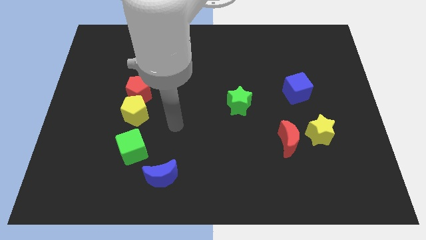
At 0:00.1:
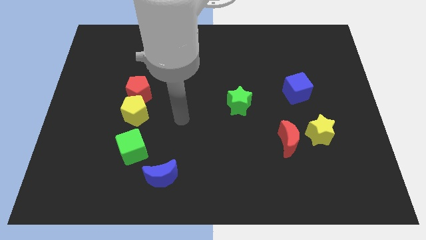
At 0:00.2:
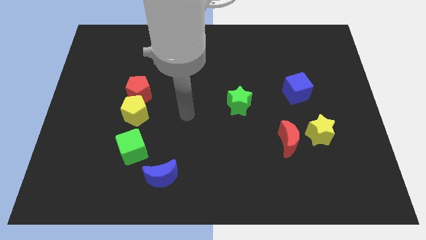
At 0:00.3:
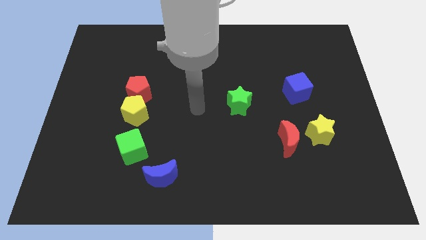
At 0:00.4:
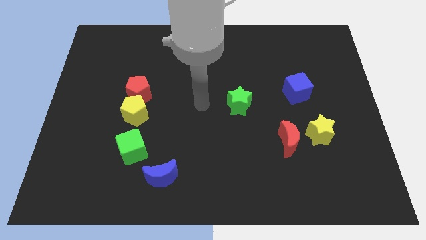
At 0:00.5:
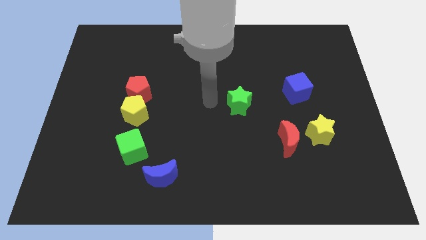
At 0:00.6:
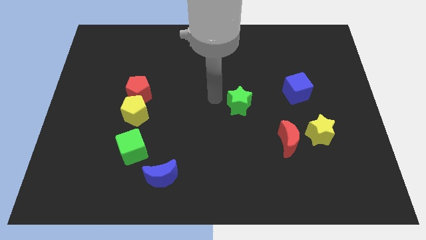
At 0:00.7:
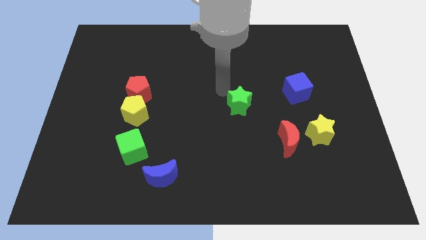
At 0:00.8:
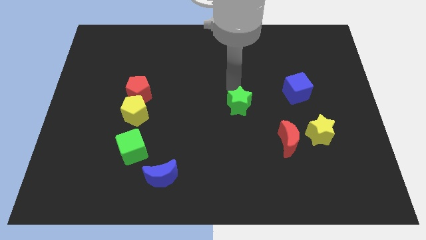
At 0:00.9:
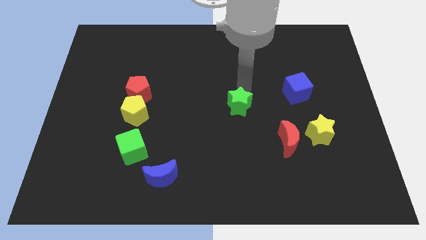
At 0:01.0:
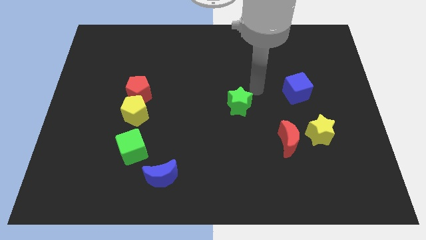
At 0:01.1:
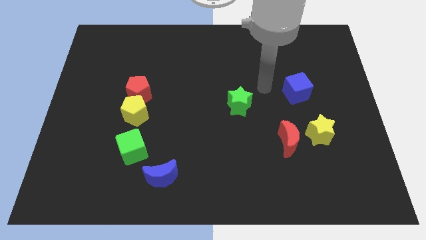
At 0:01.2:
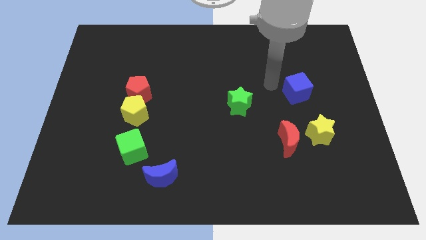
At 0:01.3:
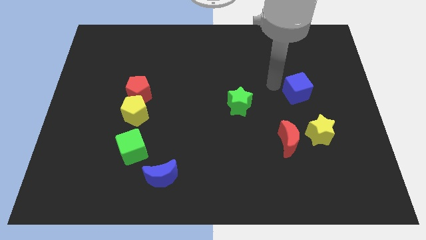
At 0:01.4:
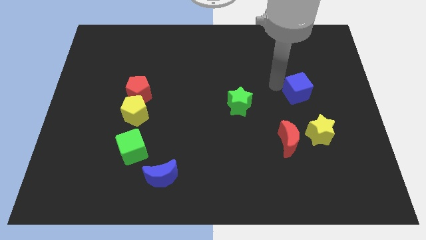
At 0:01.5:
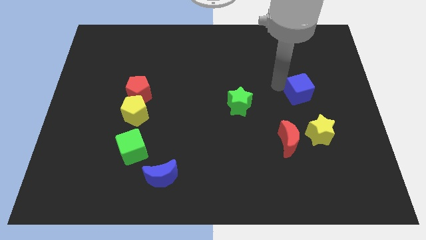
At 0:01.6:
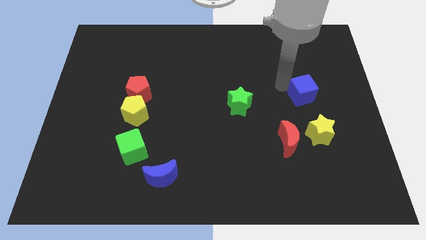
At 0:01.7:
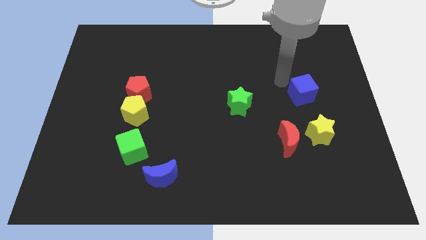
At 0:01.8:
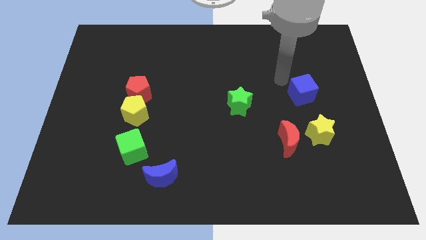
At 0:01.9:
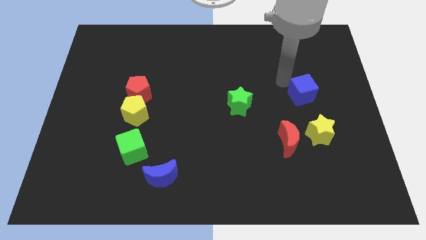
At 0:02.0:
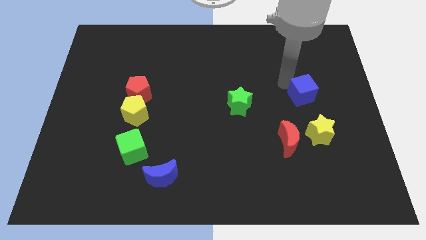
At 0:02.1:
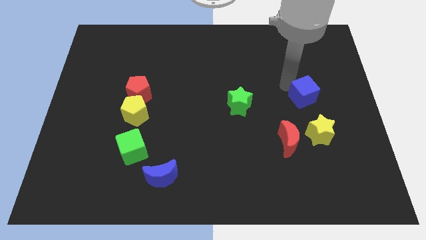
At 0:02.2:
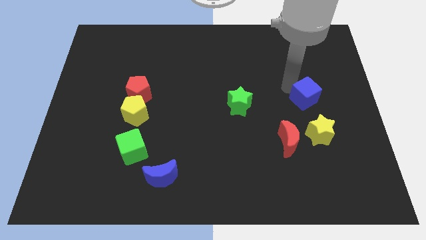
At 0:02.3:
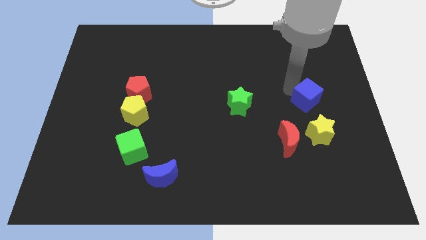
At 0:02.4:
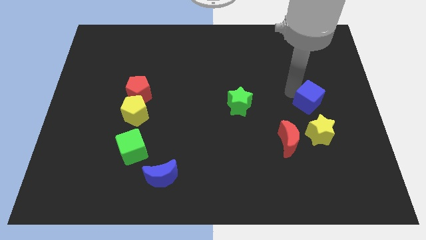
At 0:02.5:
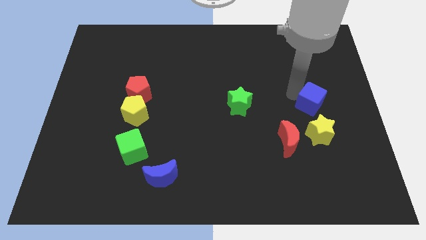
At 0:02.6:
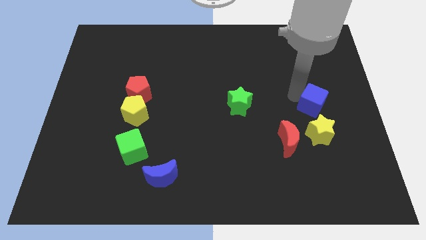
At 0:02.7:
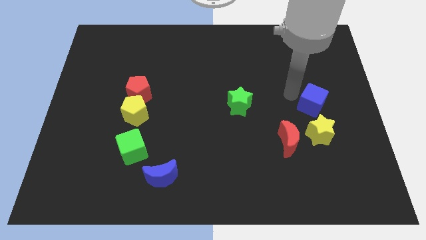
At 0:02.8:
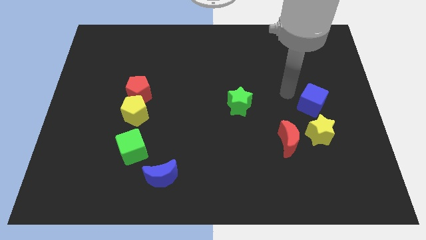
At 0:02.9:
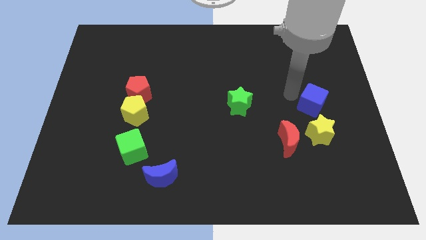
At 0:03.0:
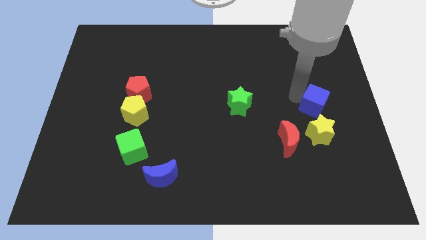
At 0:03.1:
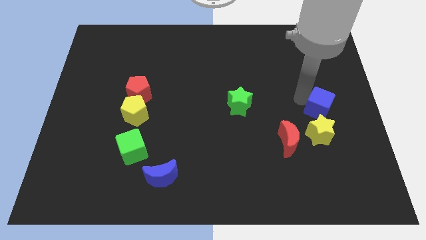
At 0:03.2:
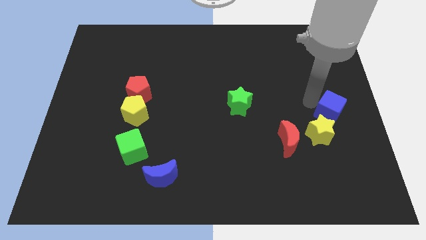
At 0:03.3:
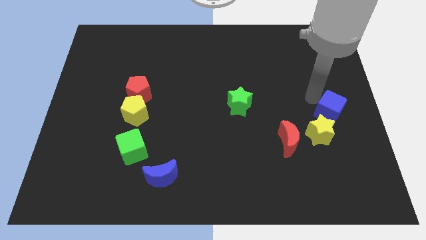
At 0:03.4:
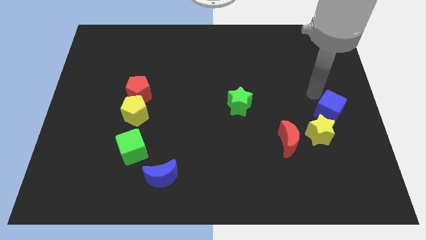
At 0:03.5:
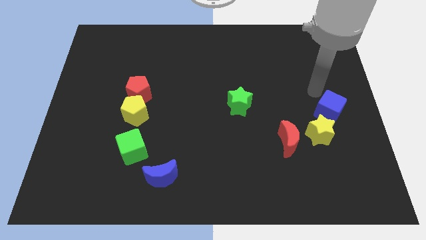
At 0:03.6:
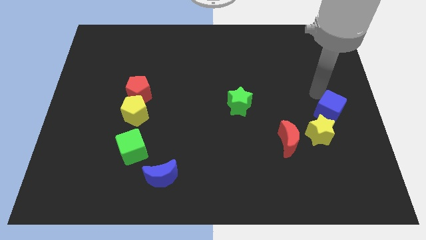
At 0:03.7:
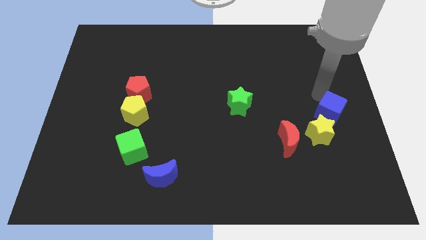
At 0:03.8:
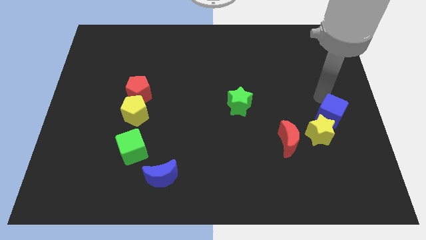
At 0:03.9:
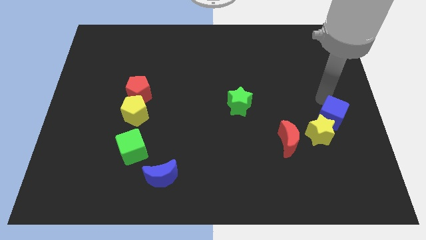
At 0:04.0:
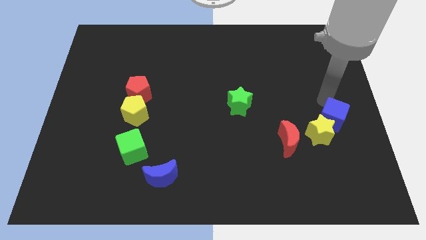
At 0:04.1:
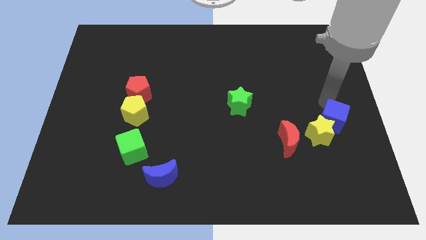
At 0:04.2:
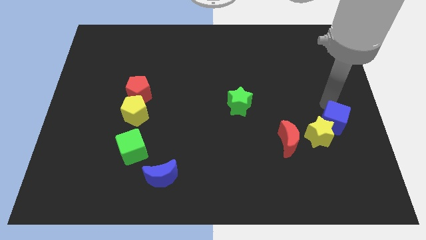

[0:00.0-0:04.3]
slide the blue cube downwards somewhat

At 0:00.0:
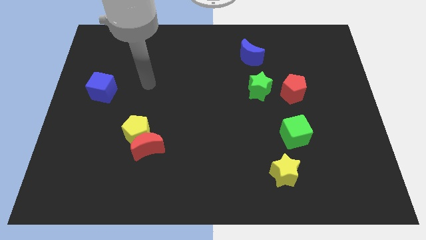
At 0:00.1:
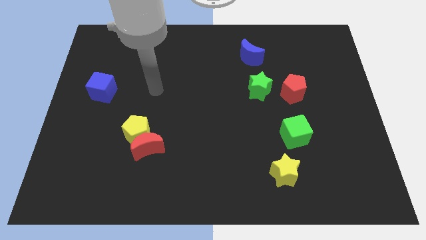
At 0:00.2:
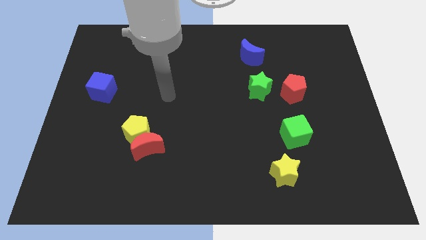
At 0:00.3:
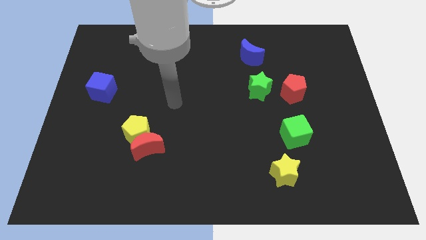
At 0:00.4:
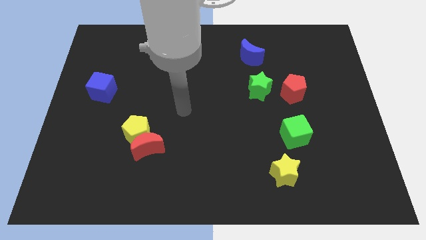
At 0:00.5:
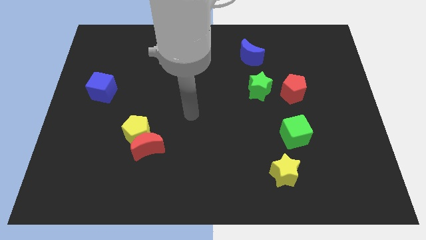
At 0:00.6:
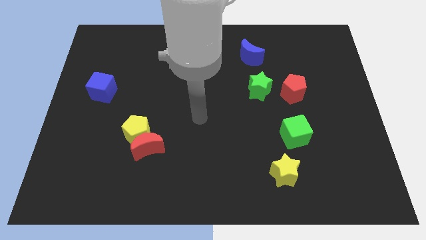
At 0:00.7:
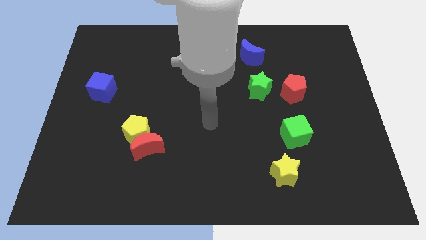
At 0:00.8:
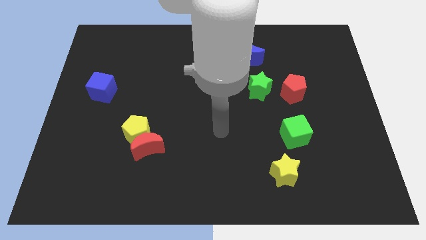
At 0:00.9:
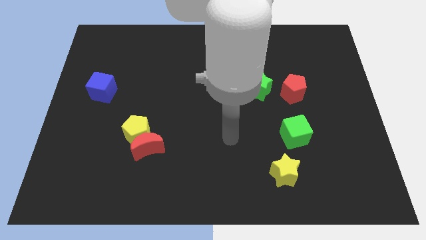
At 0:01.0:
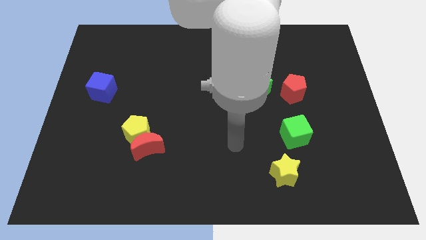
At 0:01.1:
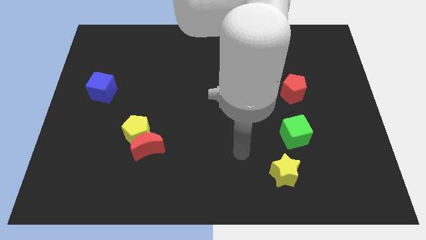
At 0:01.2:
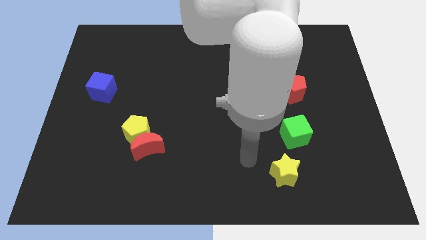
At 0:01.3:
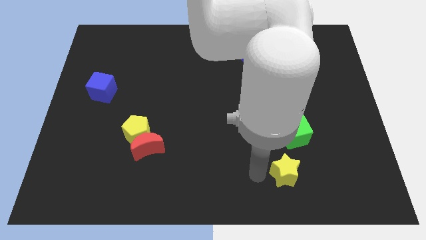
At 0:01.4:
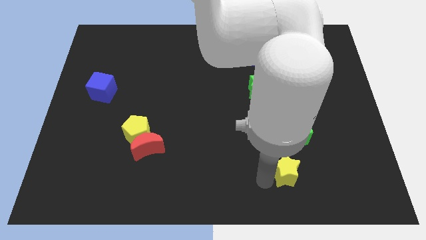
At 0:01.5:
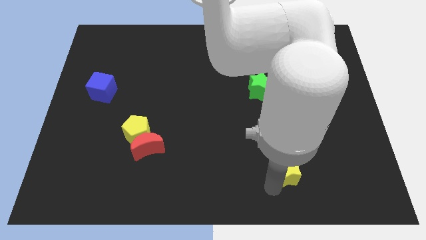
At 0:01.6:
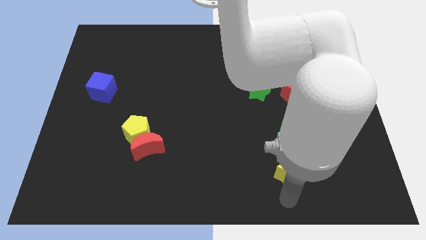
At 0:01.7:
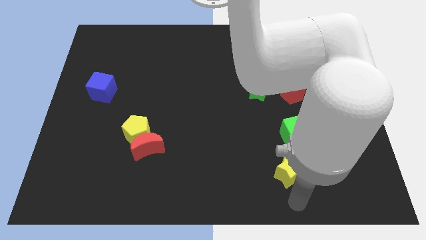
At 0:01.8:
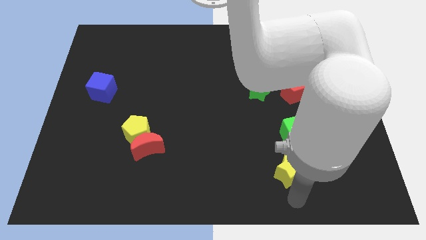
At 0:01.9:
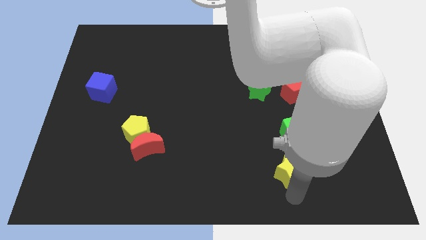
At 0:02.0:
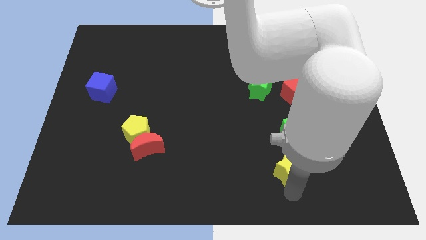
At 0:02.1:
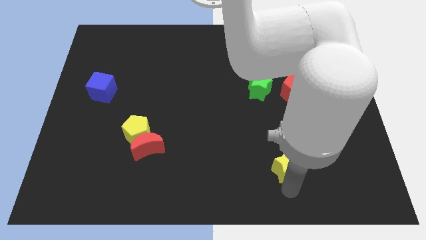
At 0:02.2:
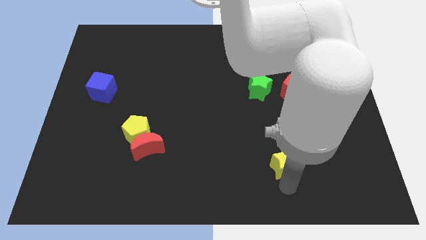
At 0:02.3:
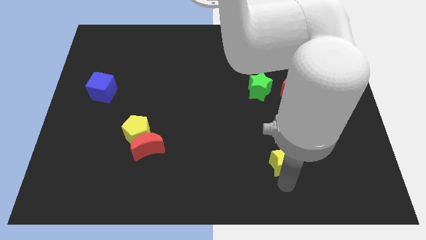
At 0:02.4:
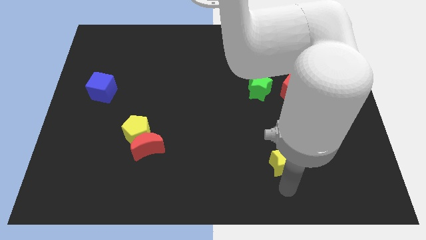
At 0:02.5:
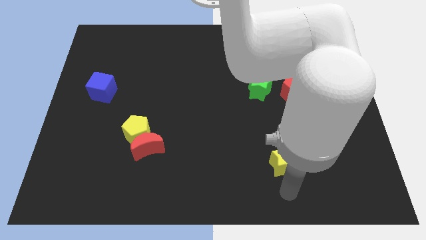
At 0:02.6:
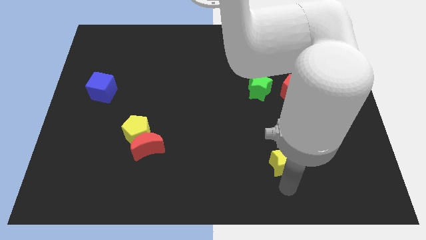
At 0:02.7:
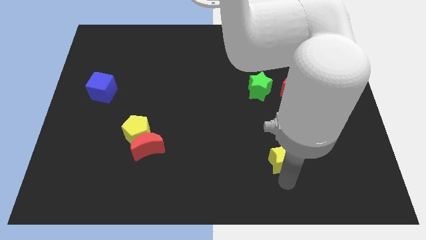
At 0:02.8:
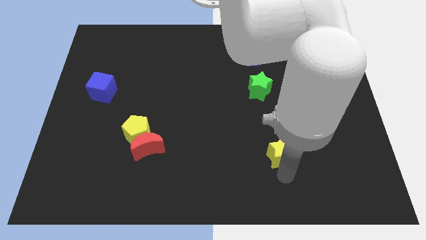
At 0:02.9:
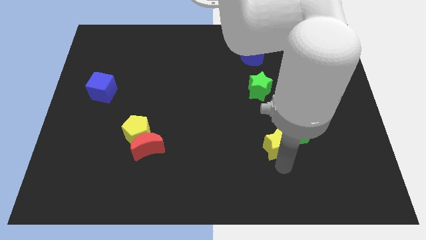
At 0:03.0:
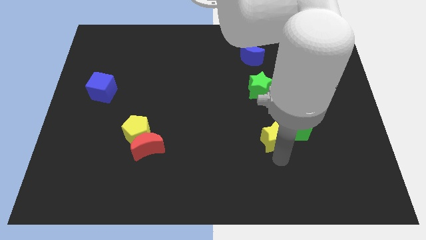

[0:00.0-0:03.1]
push the yellow star somewhat upwards

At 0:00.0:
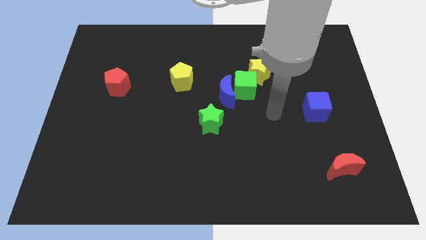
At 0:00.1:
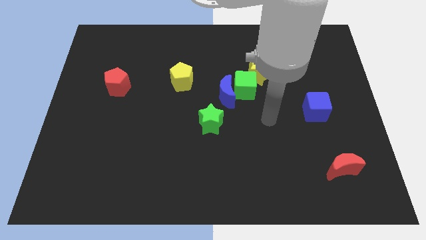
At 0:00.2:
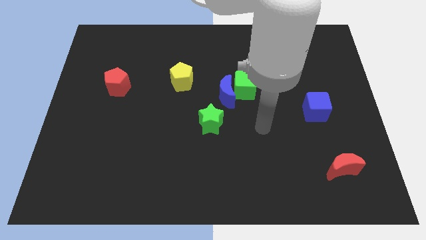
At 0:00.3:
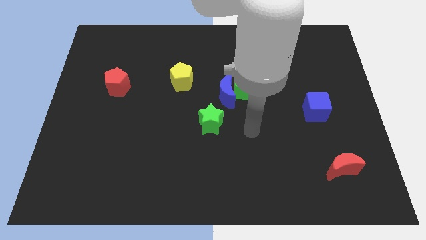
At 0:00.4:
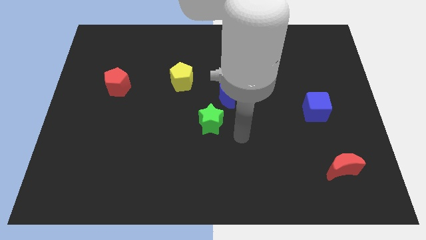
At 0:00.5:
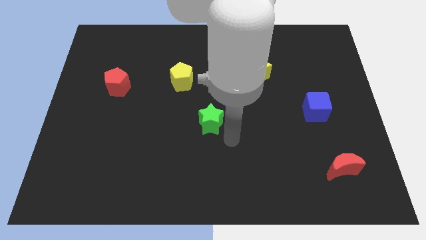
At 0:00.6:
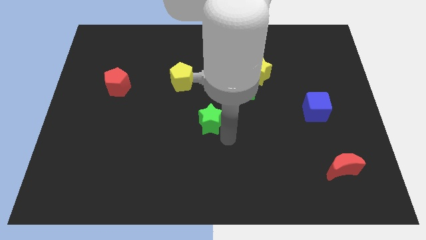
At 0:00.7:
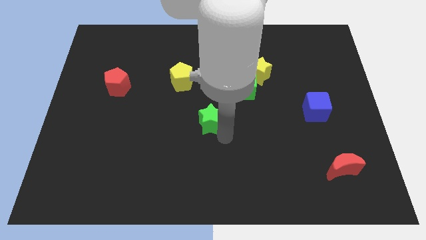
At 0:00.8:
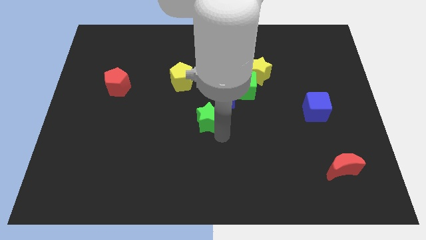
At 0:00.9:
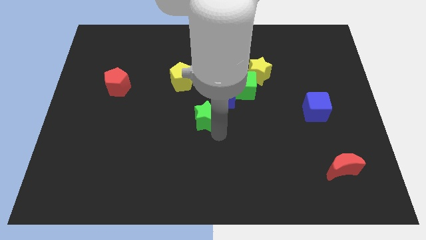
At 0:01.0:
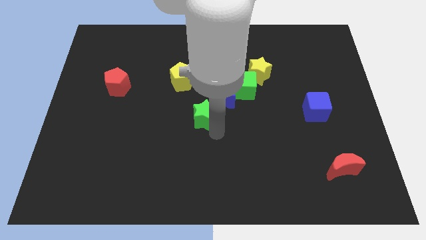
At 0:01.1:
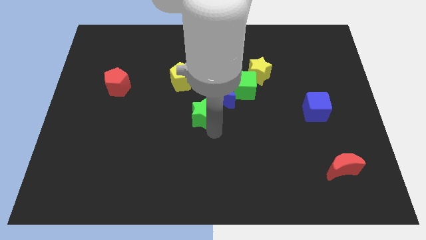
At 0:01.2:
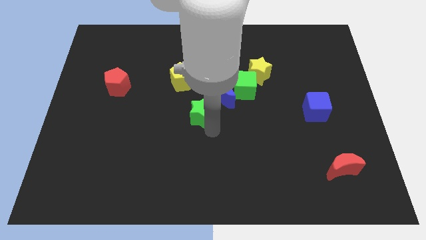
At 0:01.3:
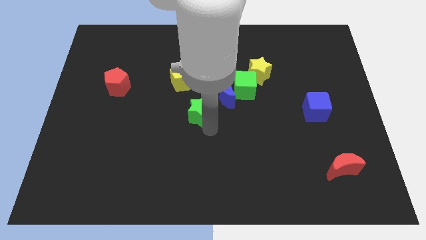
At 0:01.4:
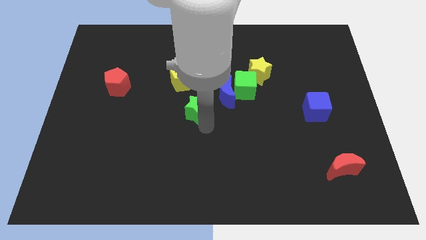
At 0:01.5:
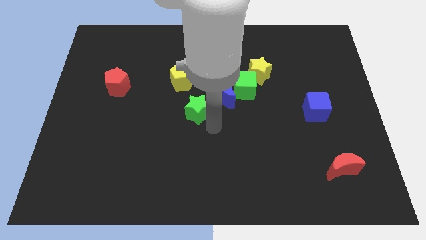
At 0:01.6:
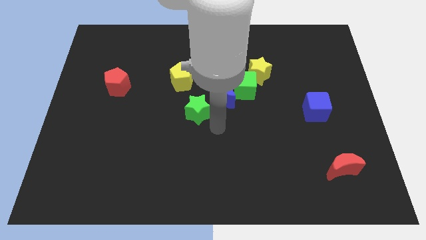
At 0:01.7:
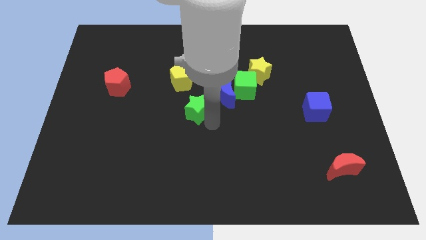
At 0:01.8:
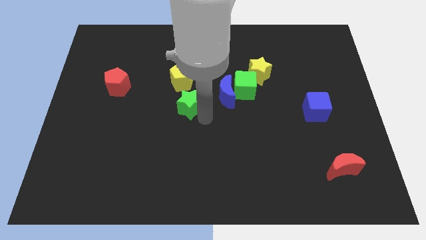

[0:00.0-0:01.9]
slightly move the green star up and to the left
